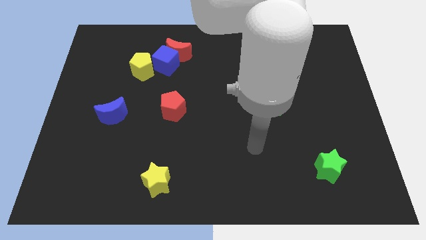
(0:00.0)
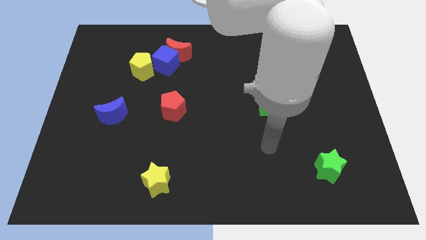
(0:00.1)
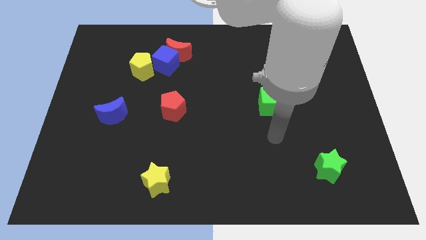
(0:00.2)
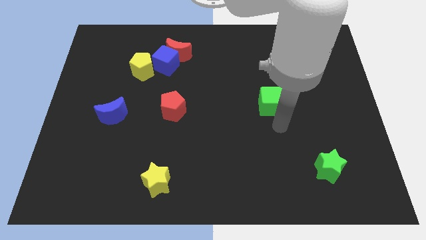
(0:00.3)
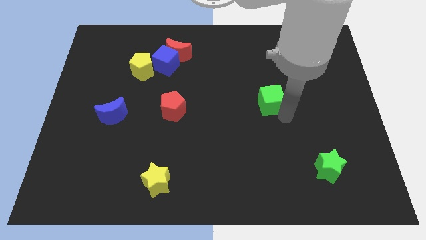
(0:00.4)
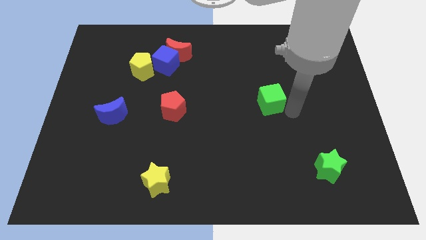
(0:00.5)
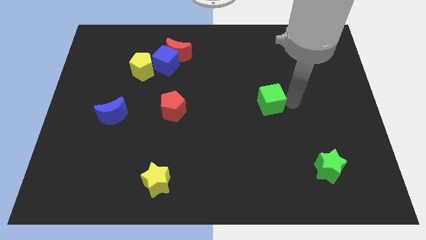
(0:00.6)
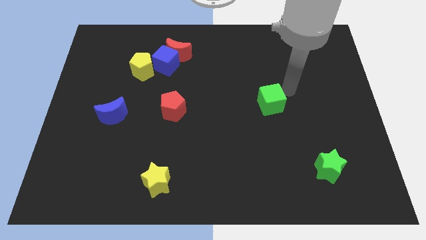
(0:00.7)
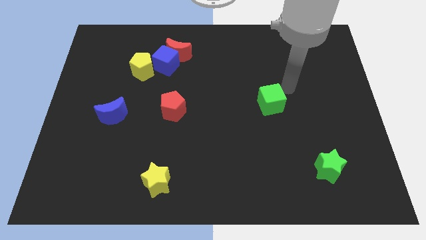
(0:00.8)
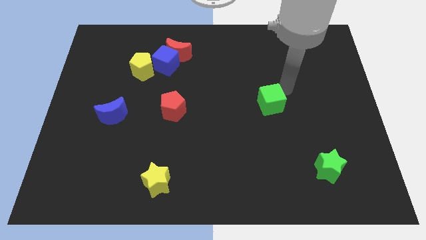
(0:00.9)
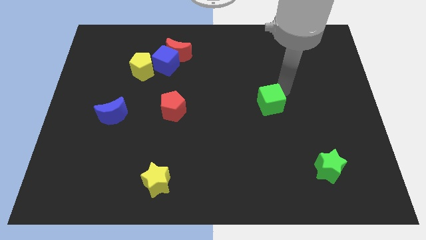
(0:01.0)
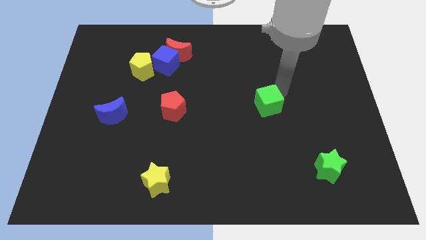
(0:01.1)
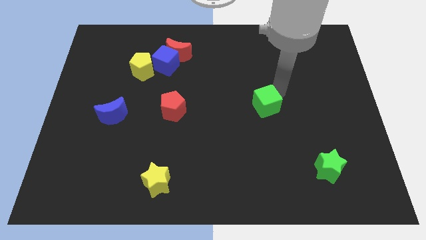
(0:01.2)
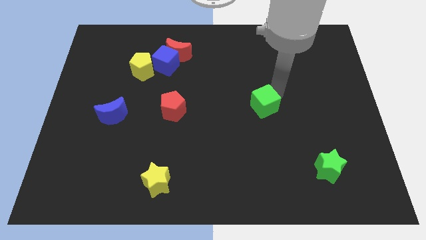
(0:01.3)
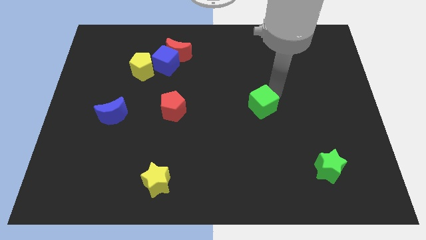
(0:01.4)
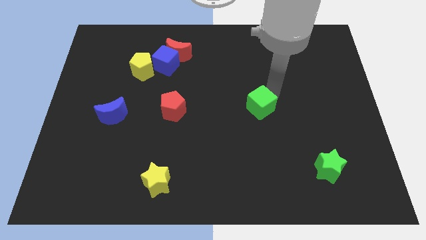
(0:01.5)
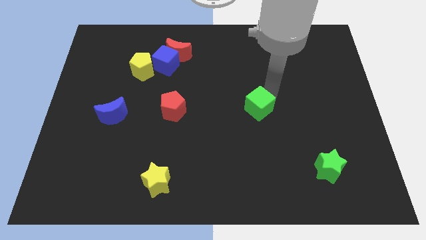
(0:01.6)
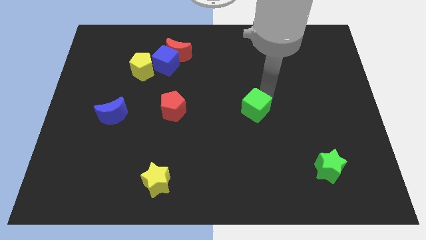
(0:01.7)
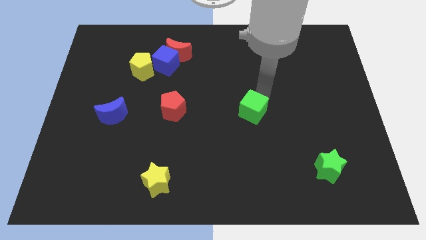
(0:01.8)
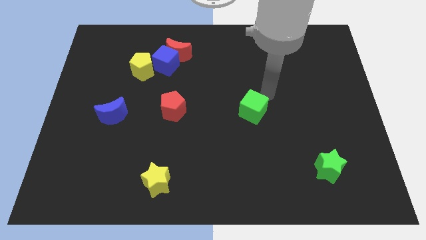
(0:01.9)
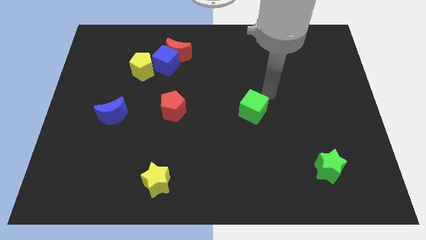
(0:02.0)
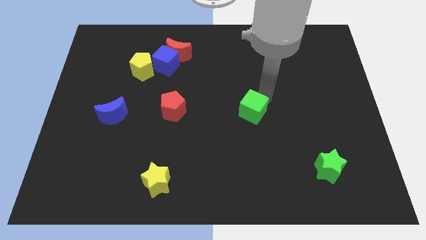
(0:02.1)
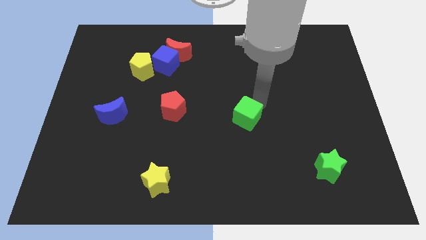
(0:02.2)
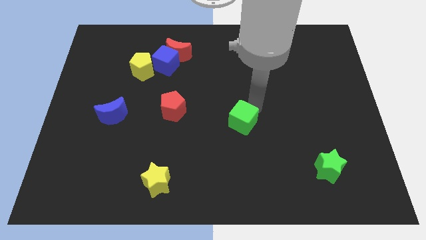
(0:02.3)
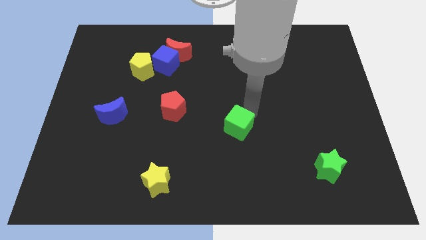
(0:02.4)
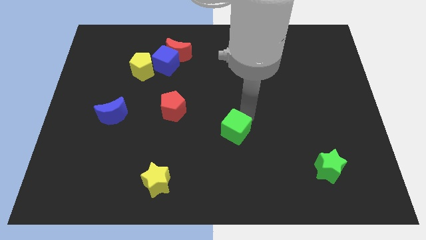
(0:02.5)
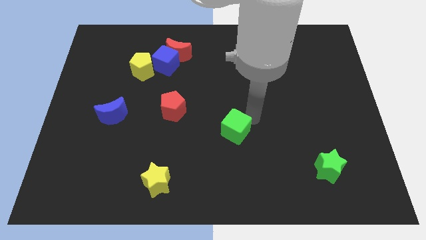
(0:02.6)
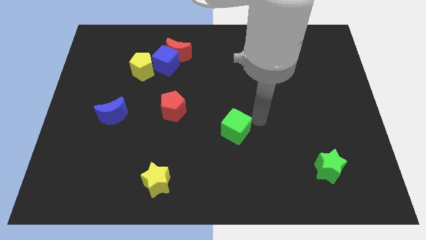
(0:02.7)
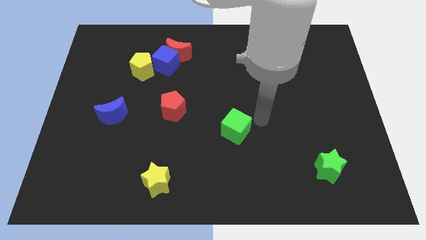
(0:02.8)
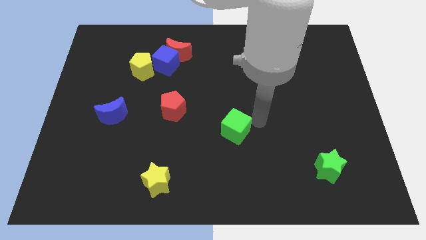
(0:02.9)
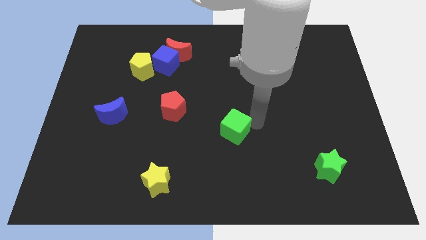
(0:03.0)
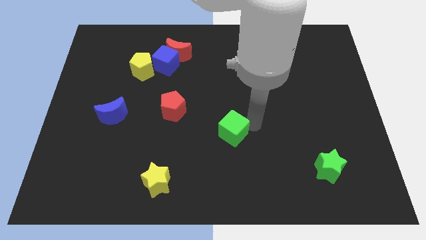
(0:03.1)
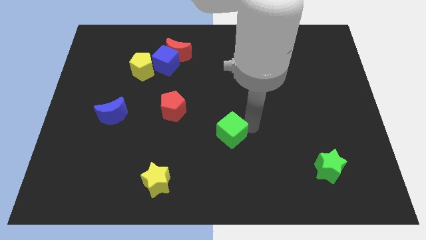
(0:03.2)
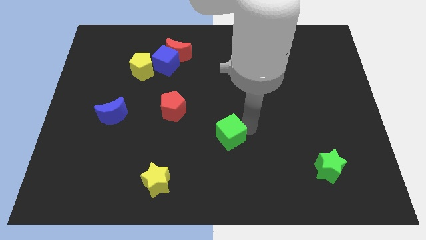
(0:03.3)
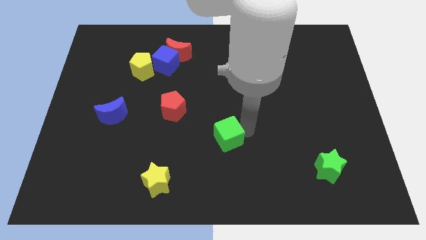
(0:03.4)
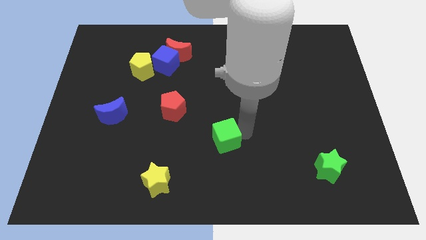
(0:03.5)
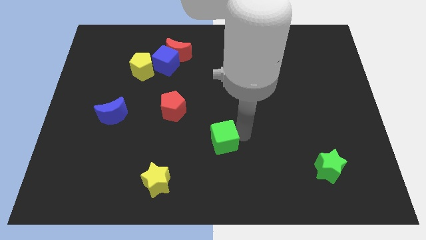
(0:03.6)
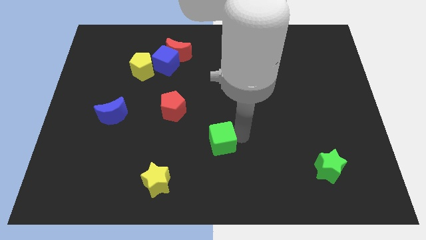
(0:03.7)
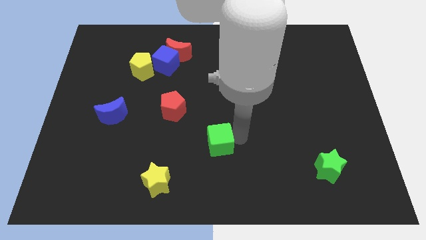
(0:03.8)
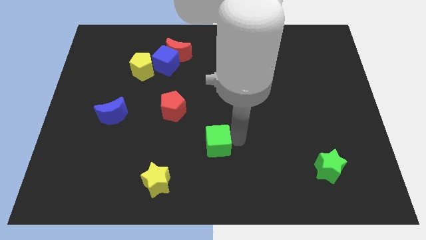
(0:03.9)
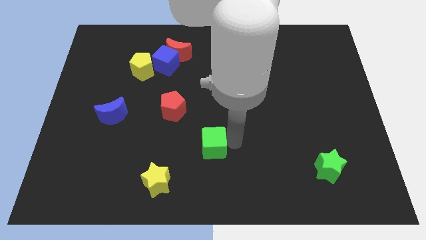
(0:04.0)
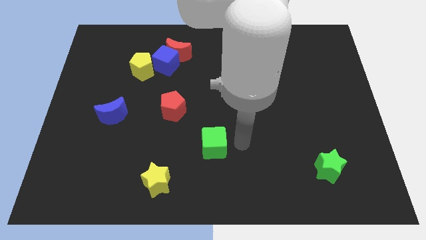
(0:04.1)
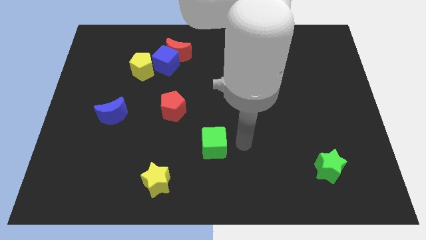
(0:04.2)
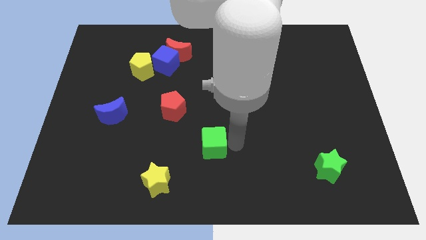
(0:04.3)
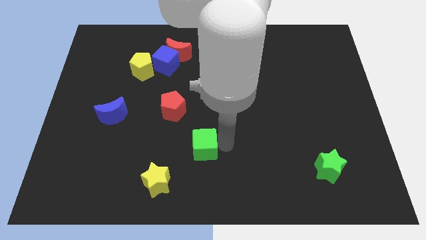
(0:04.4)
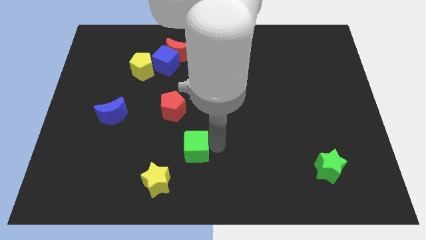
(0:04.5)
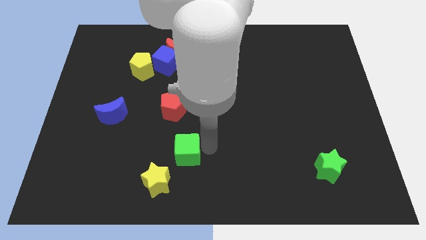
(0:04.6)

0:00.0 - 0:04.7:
move the green cube to the bottom of the red pentagon

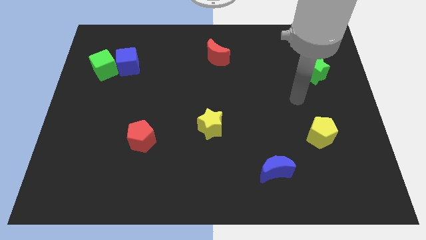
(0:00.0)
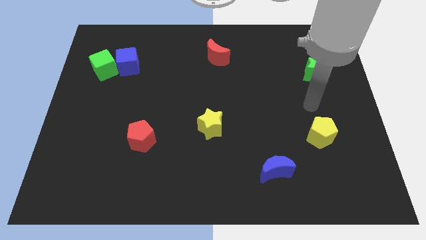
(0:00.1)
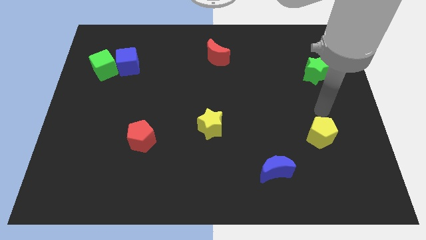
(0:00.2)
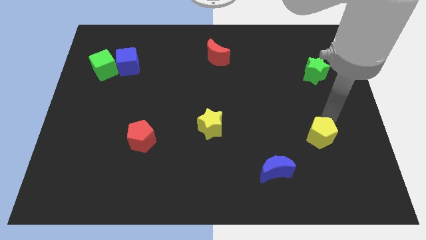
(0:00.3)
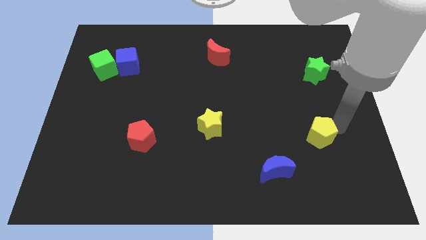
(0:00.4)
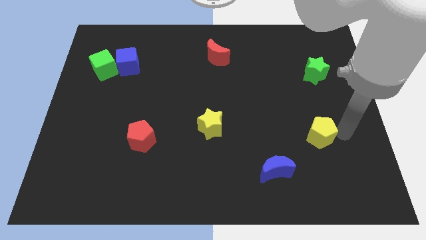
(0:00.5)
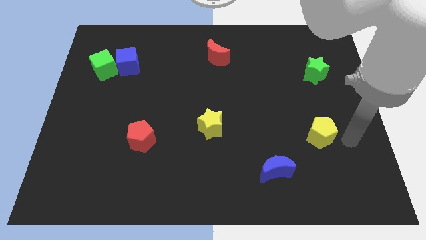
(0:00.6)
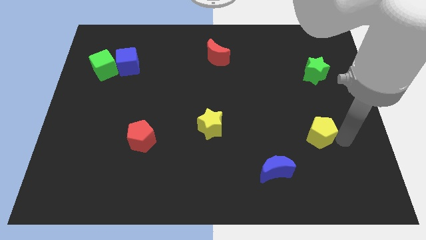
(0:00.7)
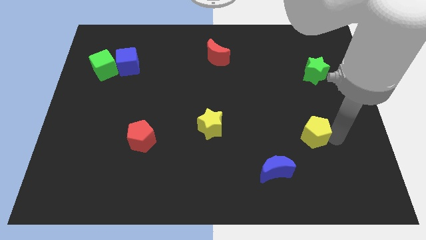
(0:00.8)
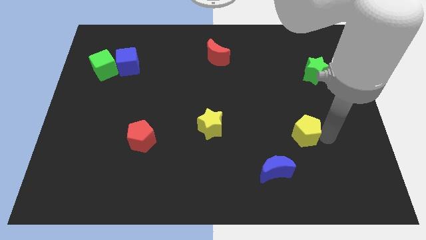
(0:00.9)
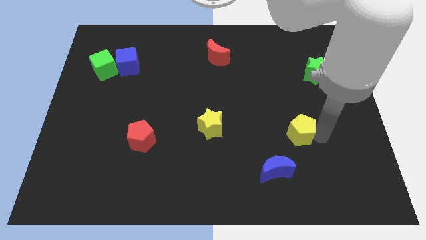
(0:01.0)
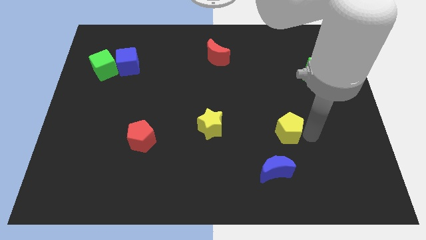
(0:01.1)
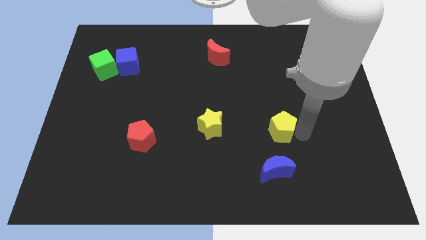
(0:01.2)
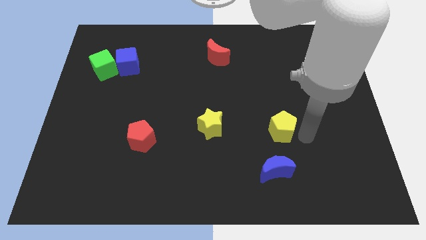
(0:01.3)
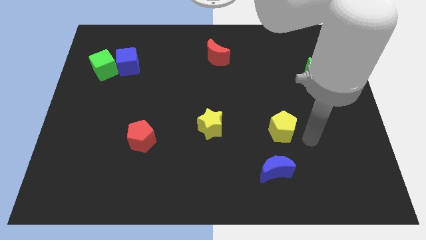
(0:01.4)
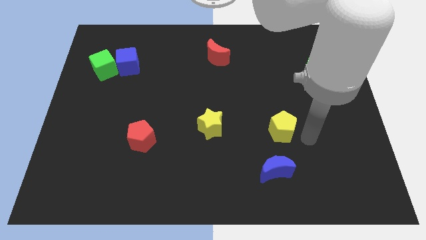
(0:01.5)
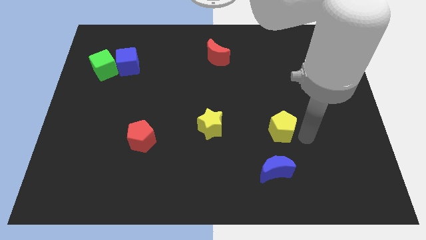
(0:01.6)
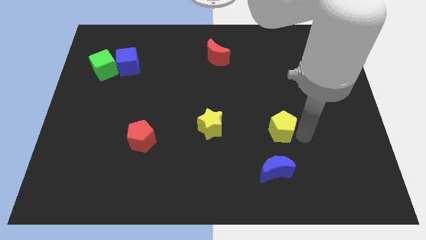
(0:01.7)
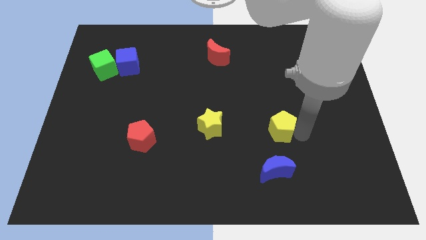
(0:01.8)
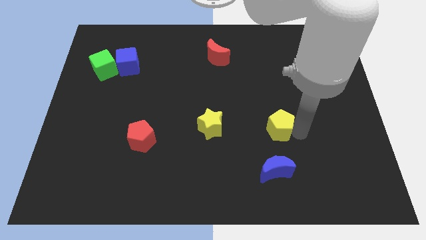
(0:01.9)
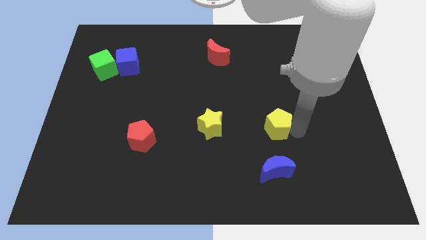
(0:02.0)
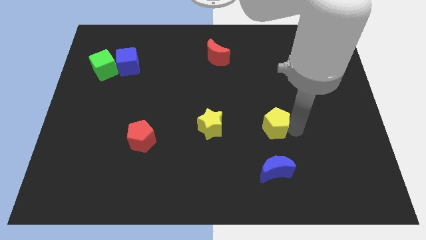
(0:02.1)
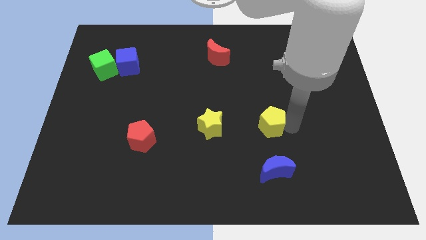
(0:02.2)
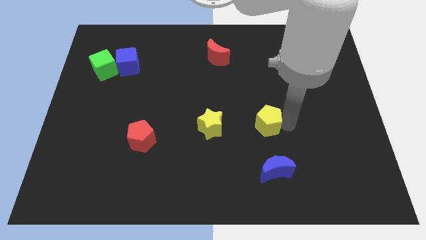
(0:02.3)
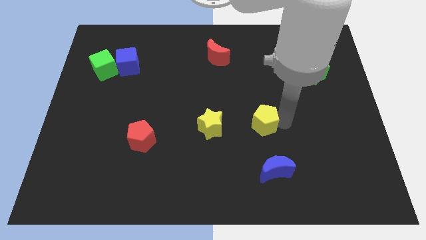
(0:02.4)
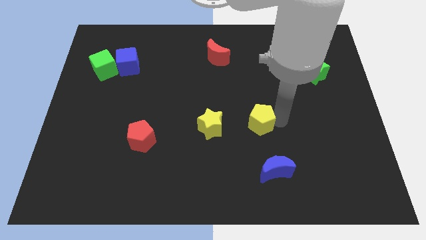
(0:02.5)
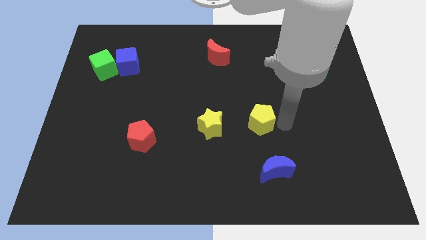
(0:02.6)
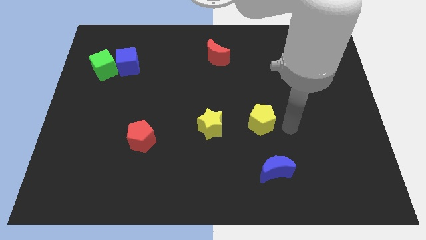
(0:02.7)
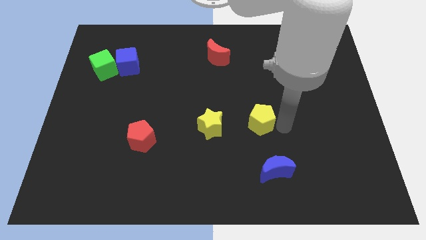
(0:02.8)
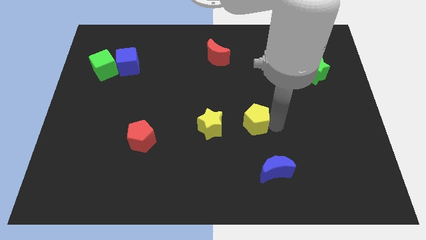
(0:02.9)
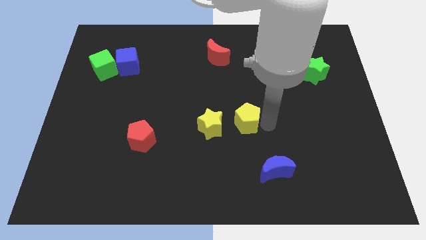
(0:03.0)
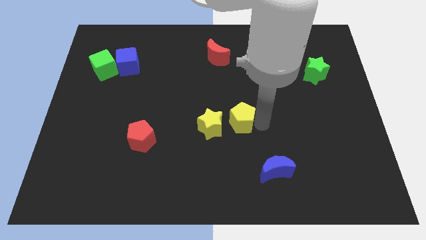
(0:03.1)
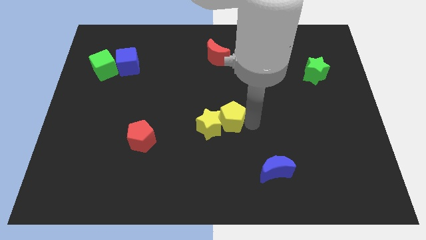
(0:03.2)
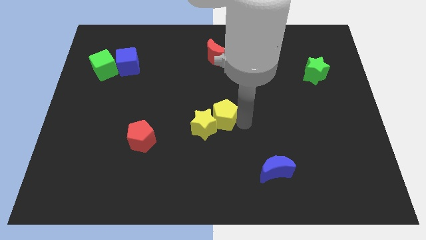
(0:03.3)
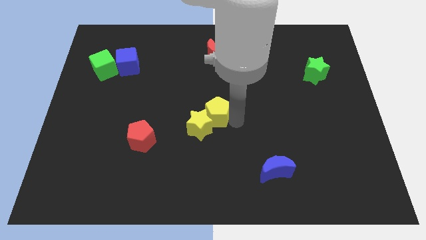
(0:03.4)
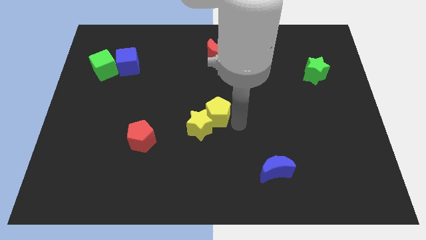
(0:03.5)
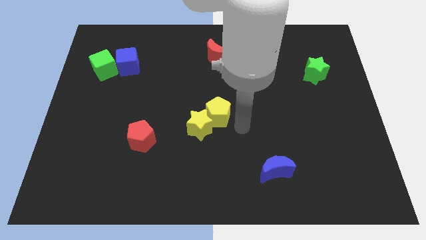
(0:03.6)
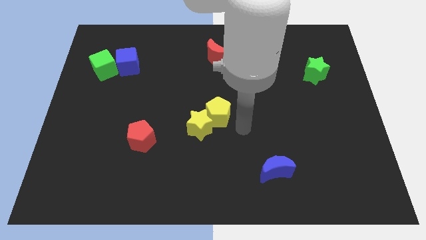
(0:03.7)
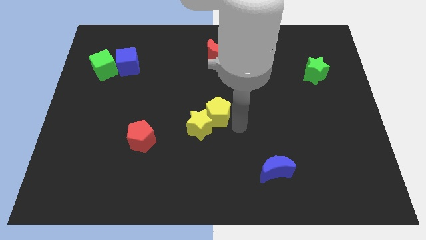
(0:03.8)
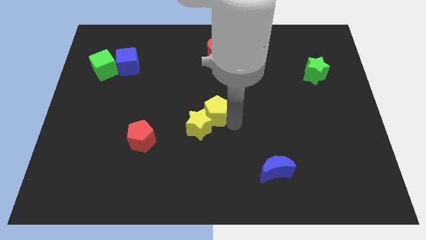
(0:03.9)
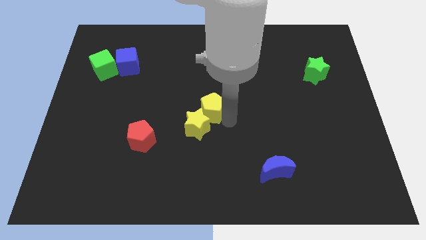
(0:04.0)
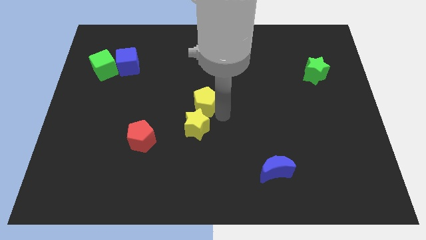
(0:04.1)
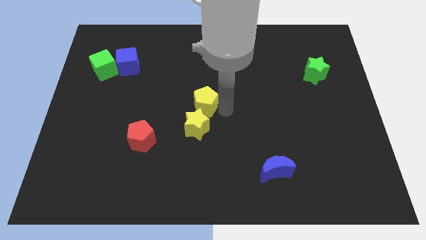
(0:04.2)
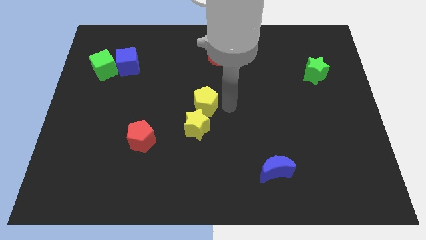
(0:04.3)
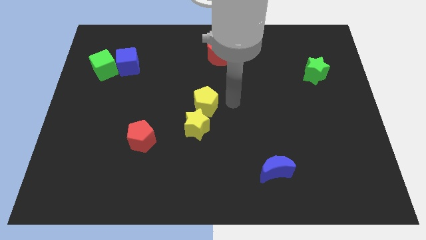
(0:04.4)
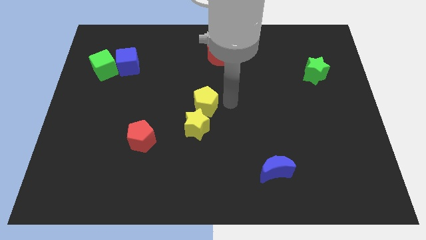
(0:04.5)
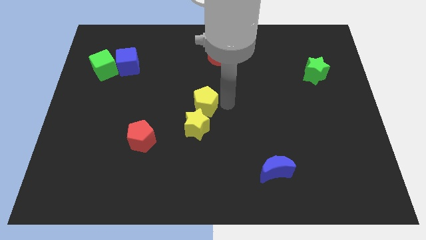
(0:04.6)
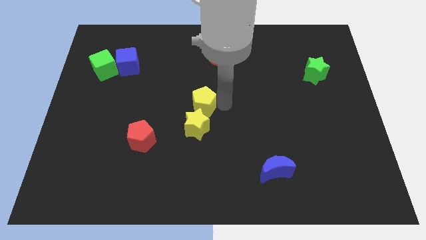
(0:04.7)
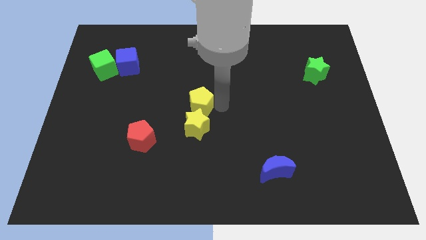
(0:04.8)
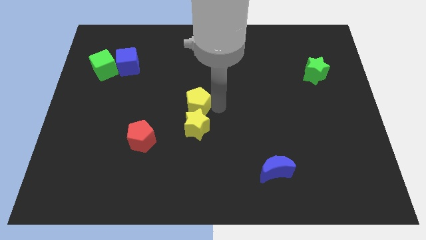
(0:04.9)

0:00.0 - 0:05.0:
push the yellow pentagon to the top left side of the yellow star
